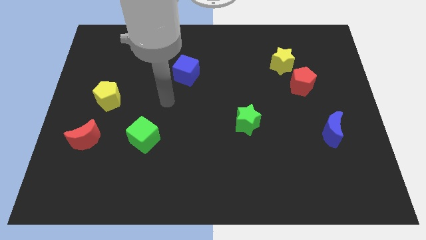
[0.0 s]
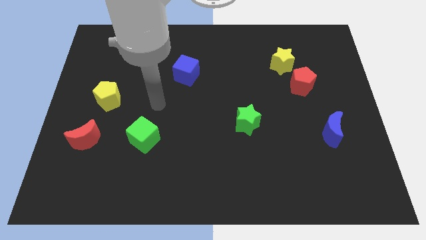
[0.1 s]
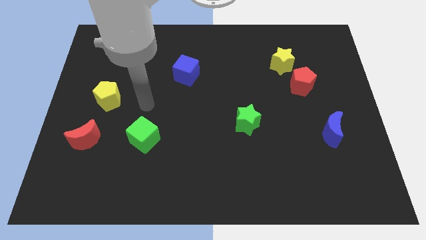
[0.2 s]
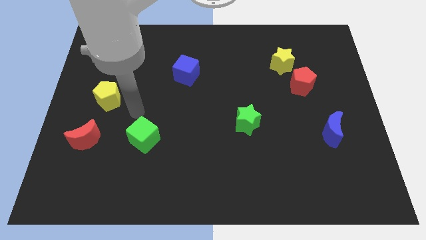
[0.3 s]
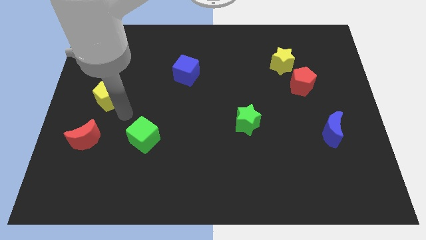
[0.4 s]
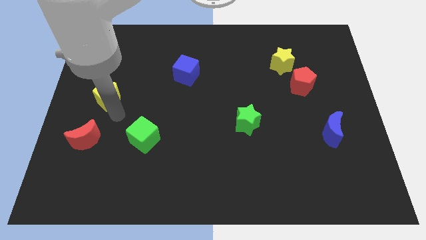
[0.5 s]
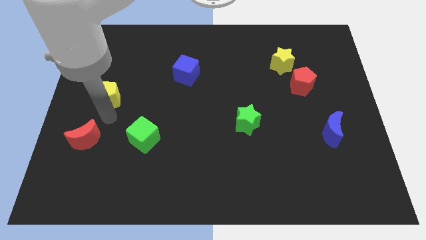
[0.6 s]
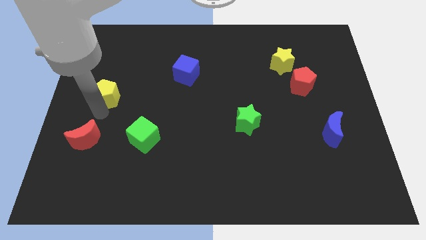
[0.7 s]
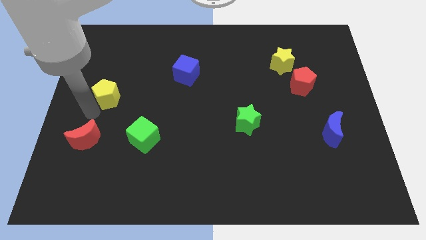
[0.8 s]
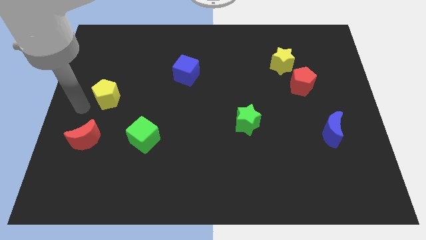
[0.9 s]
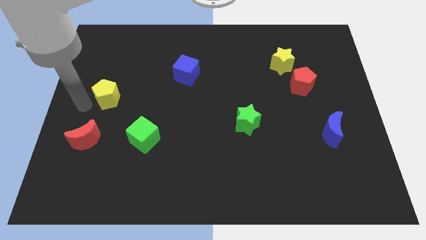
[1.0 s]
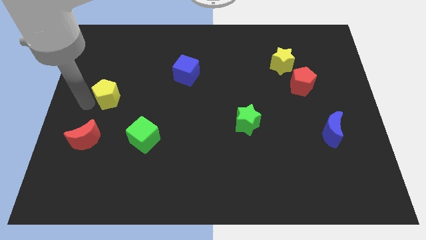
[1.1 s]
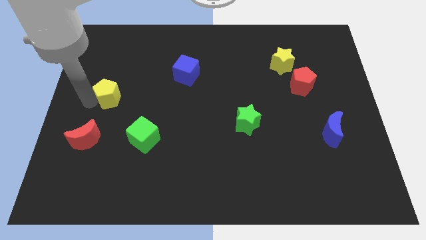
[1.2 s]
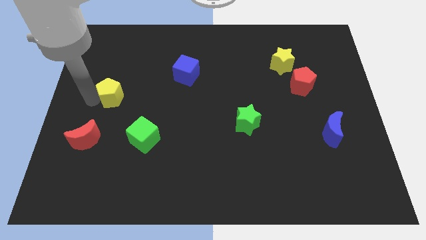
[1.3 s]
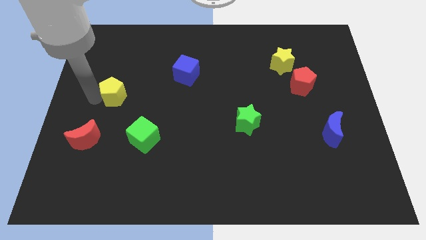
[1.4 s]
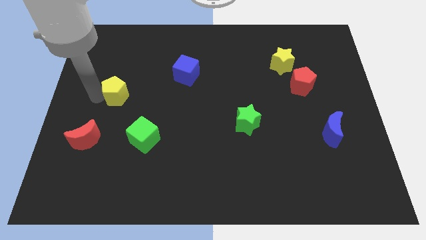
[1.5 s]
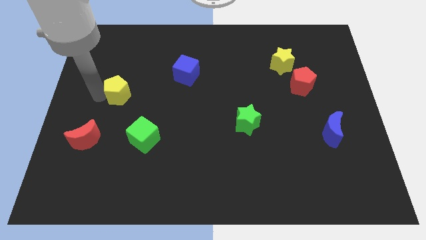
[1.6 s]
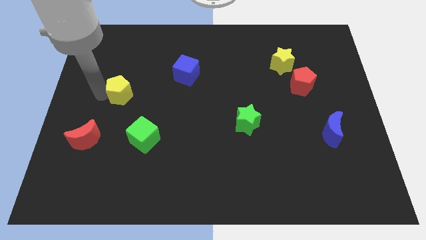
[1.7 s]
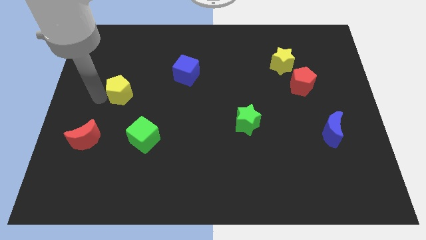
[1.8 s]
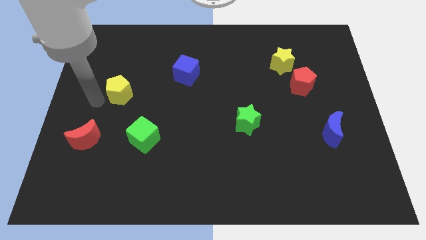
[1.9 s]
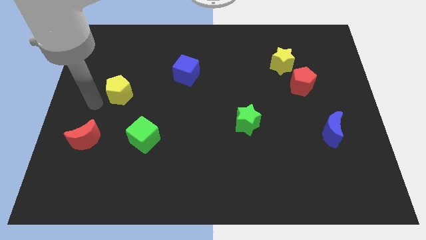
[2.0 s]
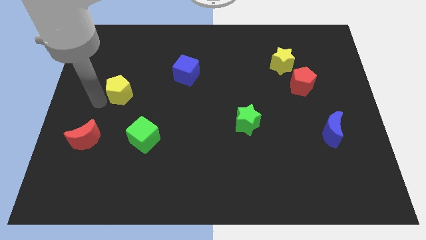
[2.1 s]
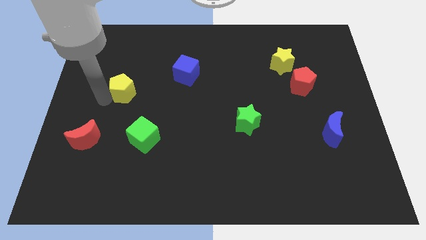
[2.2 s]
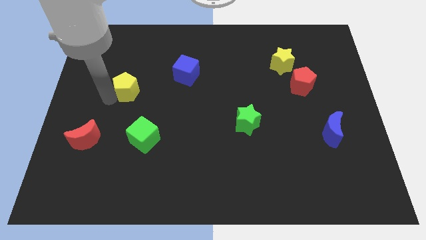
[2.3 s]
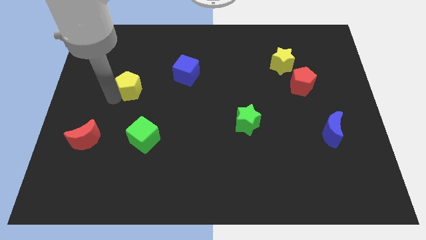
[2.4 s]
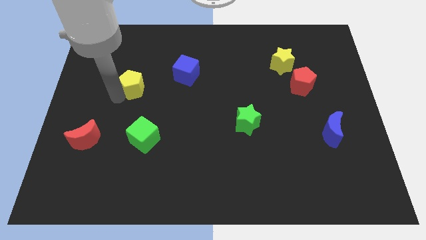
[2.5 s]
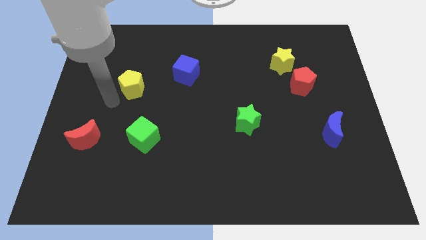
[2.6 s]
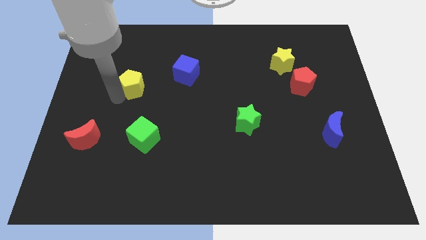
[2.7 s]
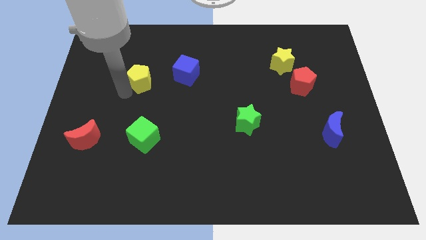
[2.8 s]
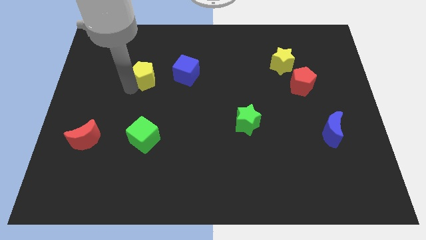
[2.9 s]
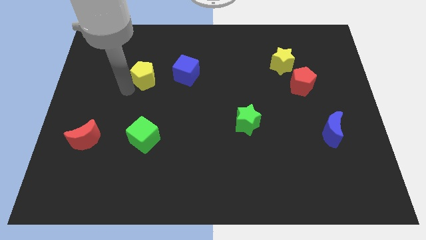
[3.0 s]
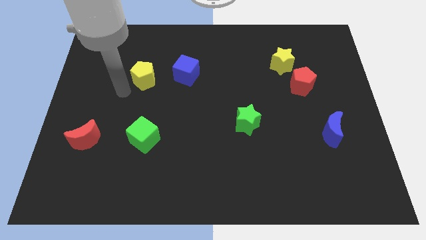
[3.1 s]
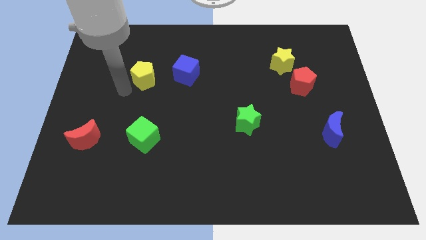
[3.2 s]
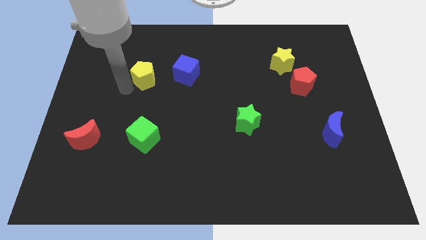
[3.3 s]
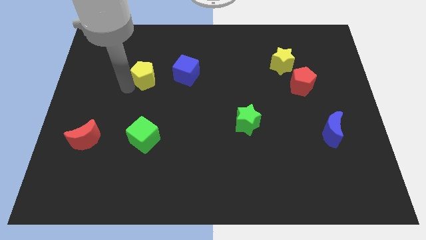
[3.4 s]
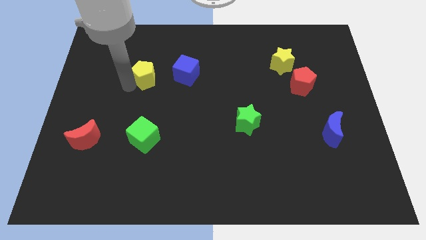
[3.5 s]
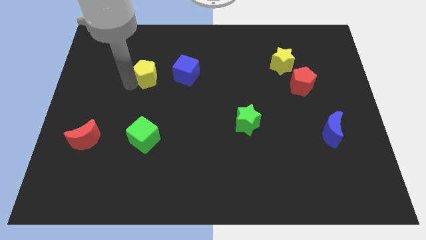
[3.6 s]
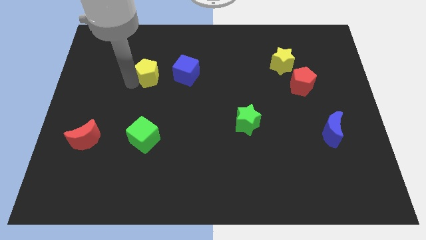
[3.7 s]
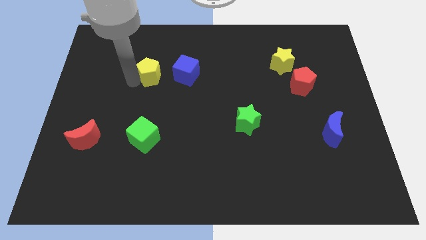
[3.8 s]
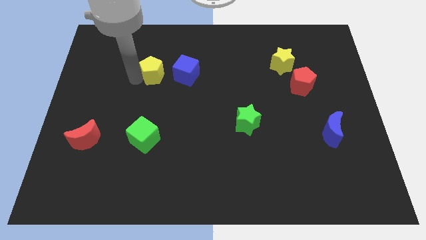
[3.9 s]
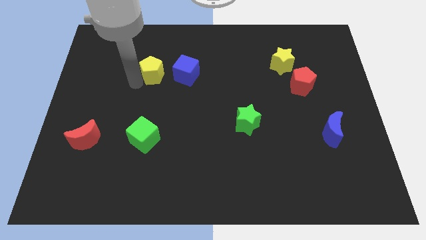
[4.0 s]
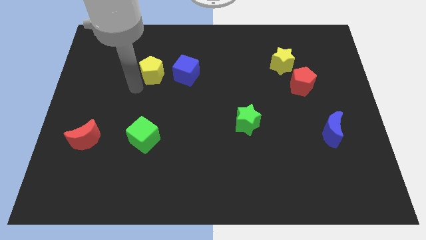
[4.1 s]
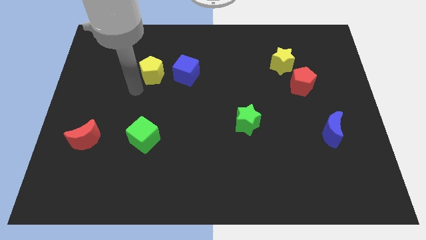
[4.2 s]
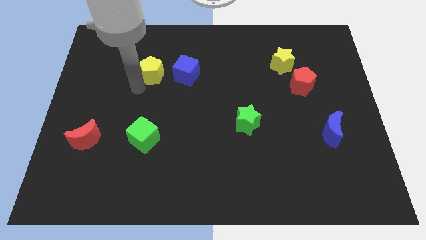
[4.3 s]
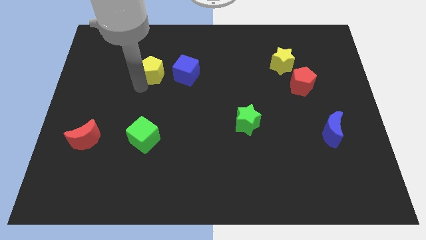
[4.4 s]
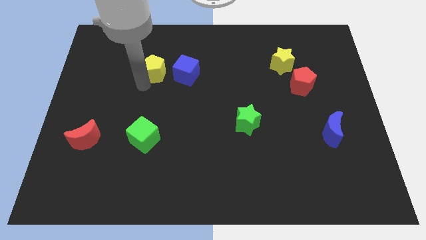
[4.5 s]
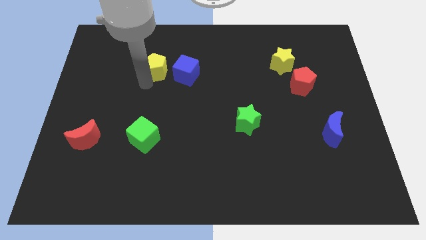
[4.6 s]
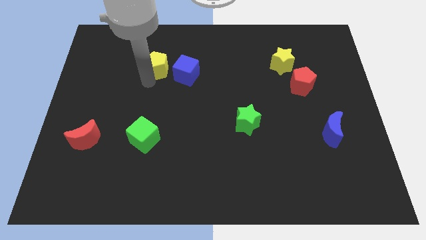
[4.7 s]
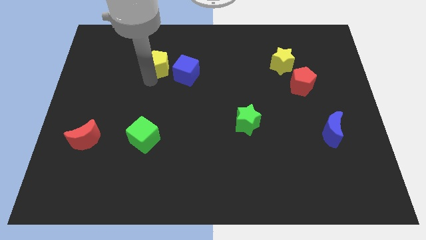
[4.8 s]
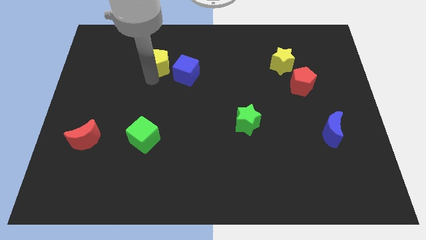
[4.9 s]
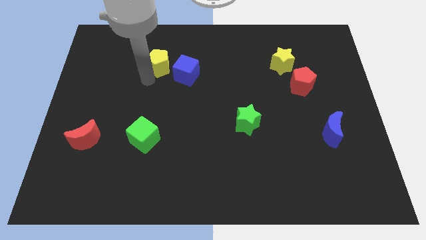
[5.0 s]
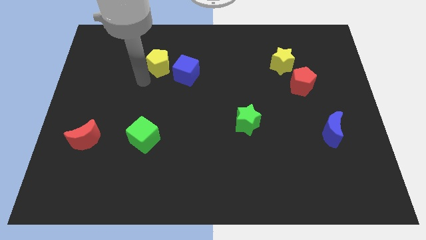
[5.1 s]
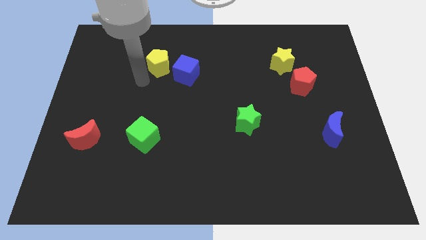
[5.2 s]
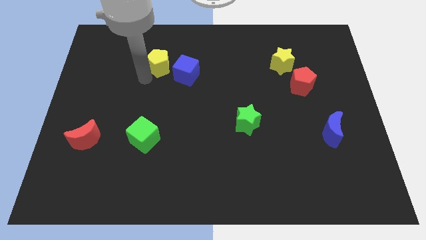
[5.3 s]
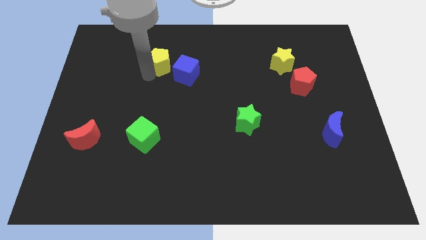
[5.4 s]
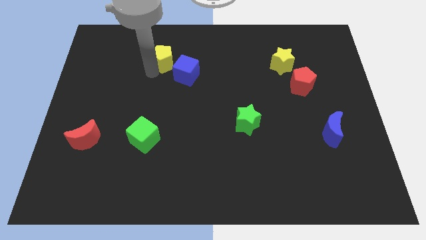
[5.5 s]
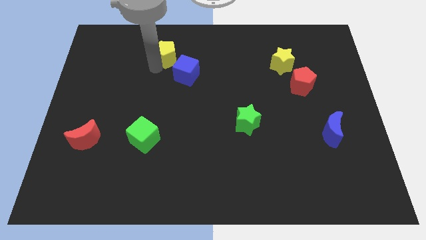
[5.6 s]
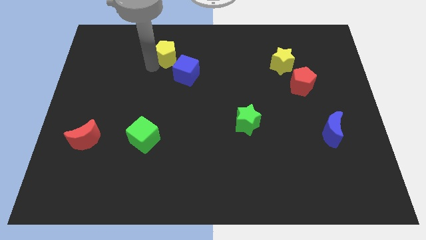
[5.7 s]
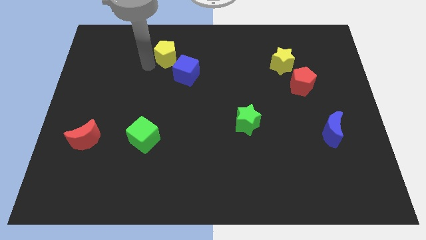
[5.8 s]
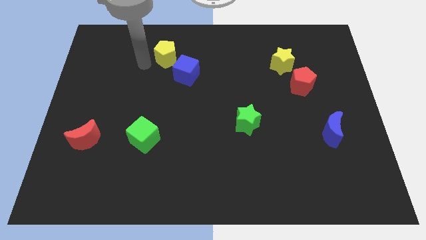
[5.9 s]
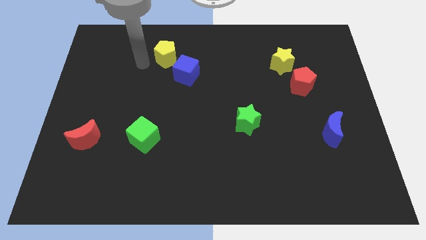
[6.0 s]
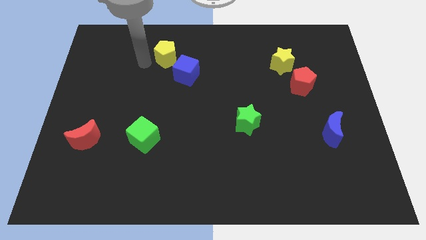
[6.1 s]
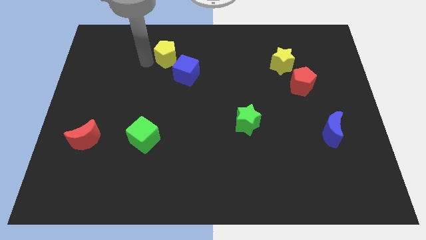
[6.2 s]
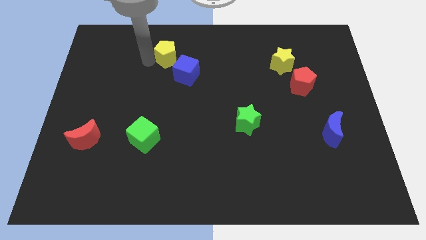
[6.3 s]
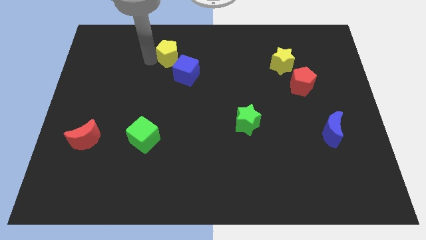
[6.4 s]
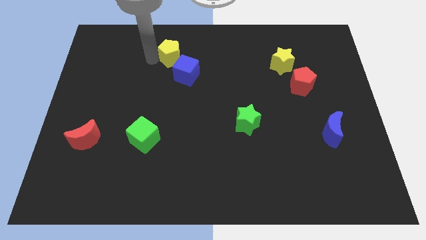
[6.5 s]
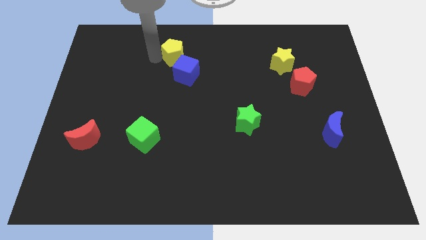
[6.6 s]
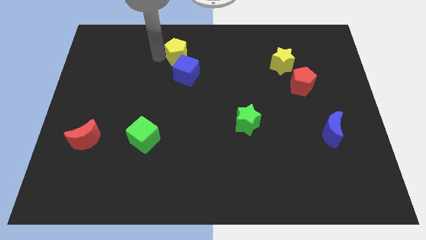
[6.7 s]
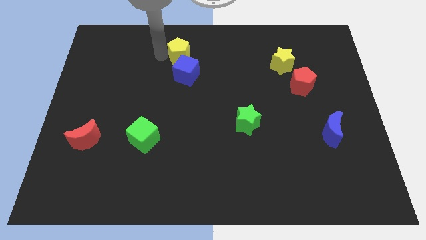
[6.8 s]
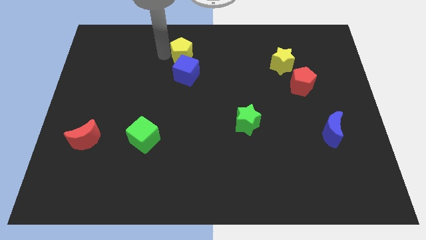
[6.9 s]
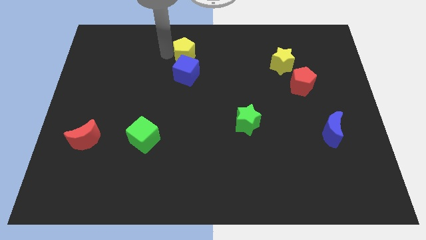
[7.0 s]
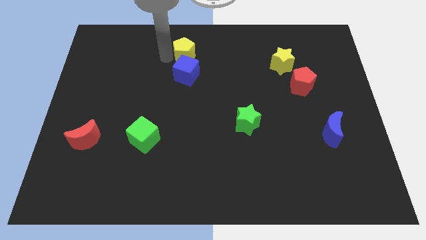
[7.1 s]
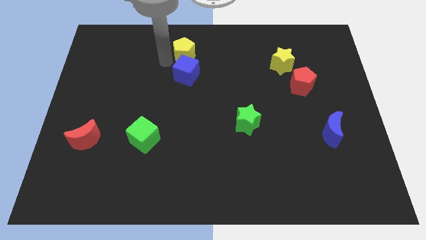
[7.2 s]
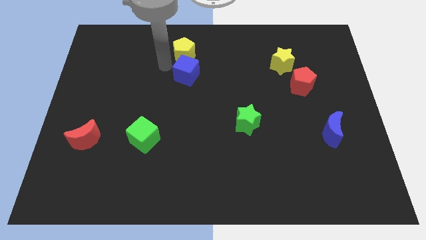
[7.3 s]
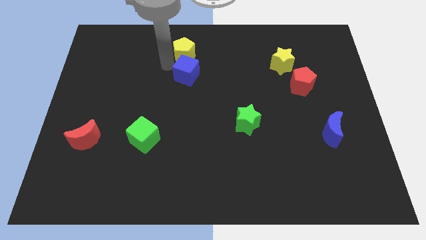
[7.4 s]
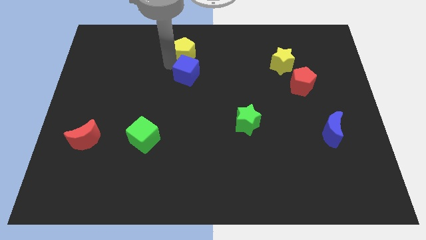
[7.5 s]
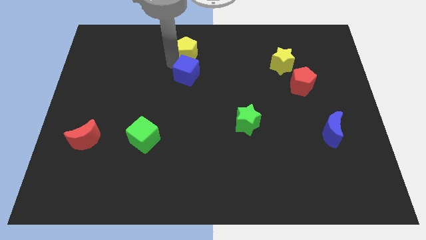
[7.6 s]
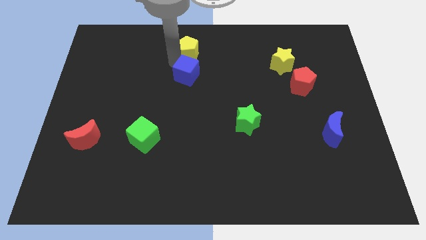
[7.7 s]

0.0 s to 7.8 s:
slide the yellow pentagon to the top

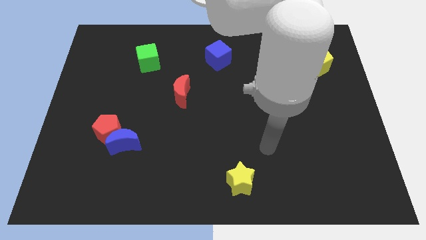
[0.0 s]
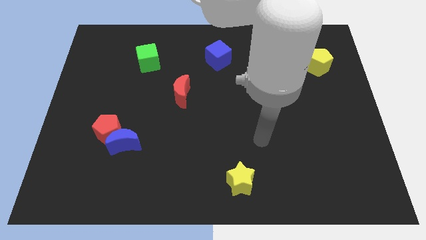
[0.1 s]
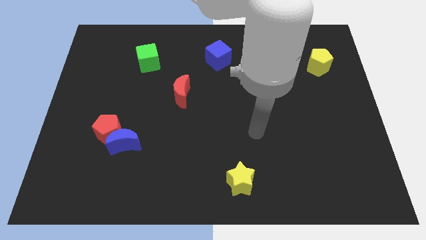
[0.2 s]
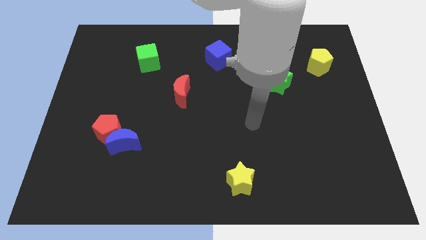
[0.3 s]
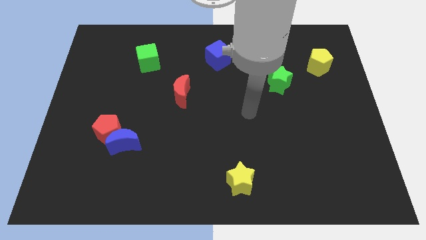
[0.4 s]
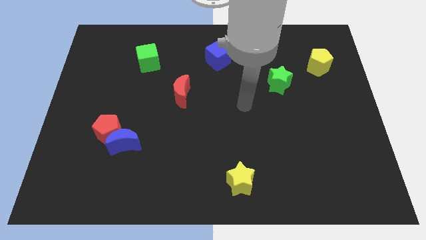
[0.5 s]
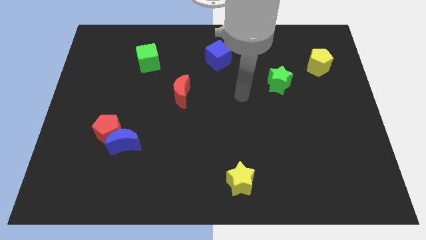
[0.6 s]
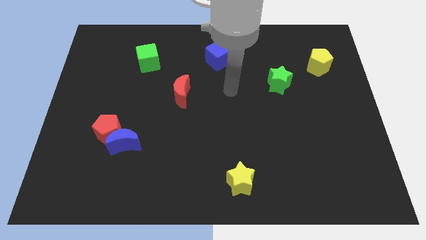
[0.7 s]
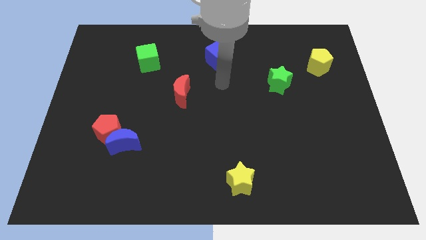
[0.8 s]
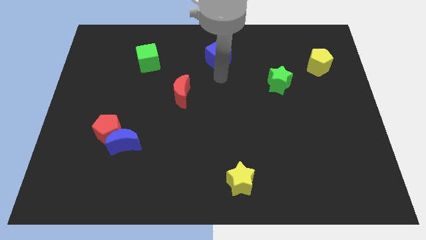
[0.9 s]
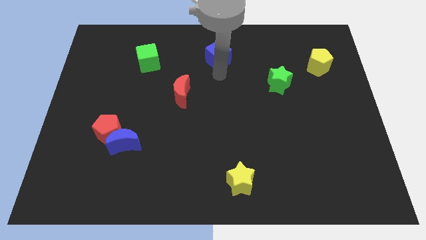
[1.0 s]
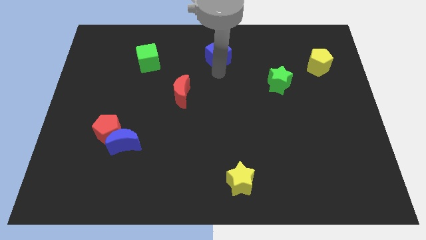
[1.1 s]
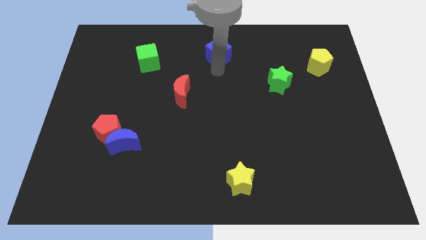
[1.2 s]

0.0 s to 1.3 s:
put the blue cube to the towards your base
